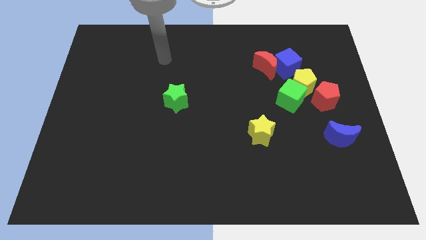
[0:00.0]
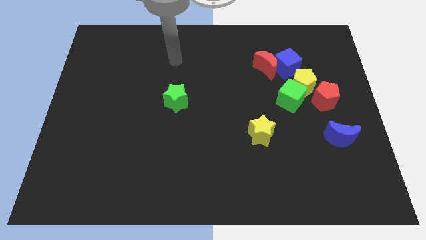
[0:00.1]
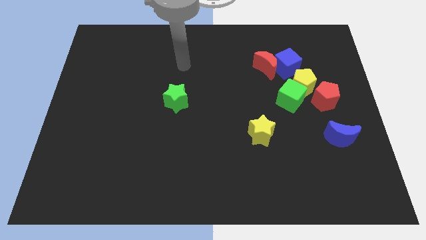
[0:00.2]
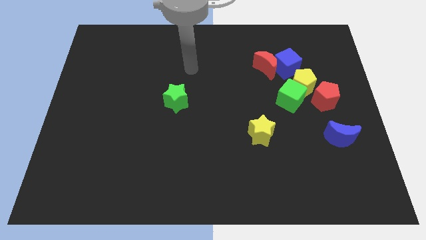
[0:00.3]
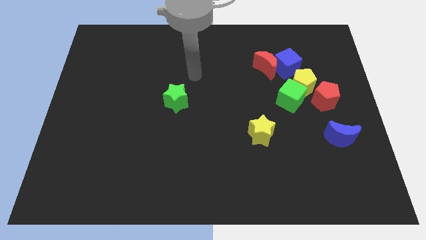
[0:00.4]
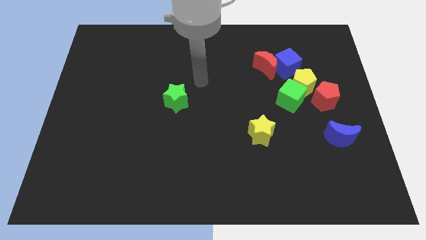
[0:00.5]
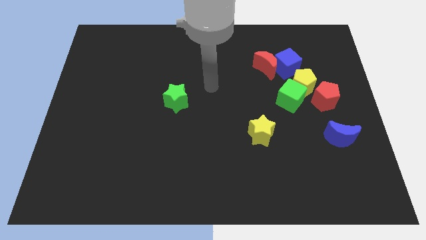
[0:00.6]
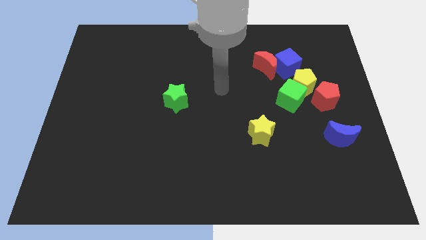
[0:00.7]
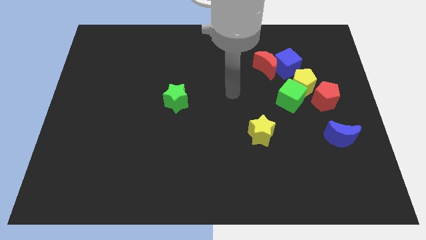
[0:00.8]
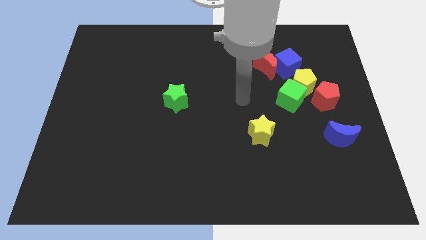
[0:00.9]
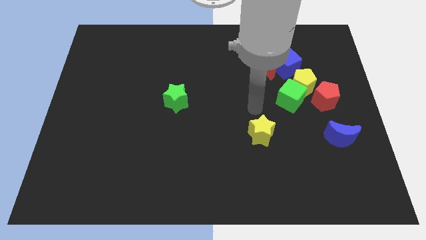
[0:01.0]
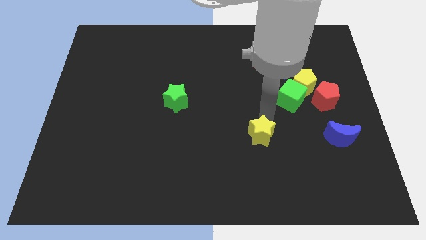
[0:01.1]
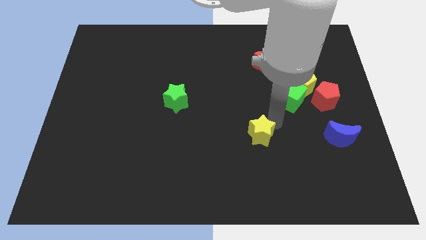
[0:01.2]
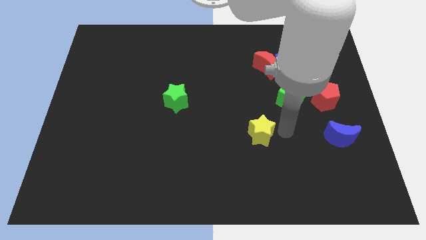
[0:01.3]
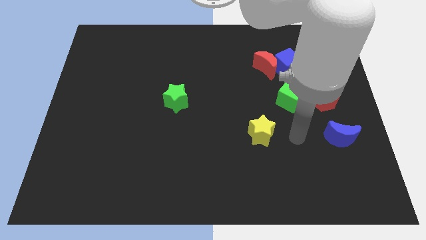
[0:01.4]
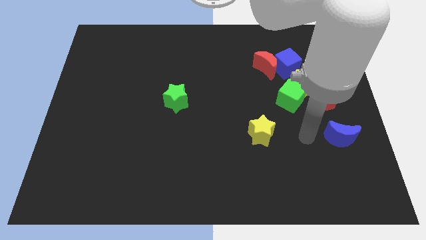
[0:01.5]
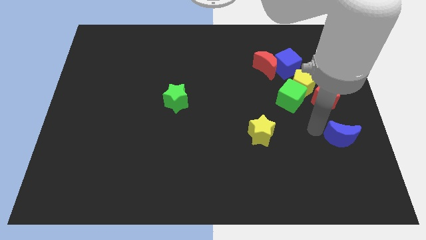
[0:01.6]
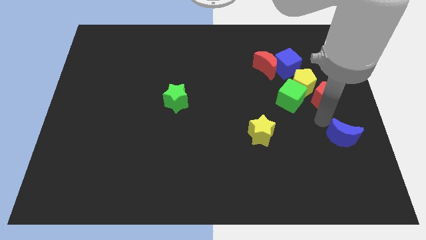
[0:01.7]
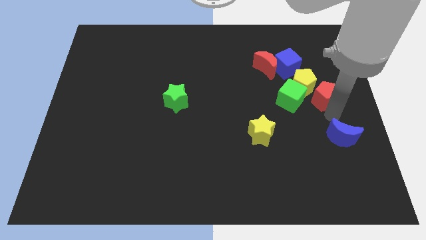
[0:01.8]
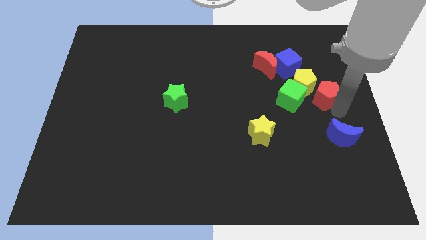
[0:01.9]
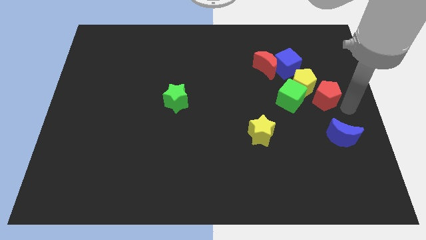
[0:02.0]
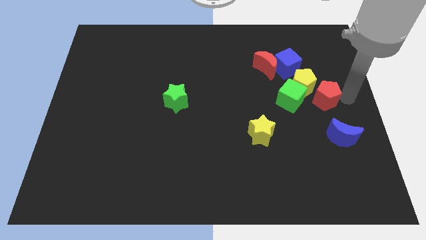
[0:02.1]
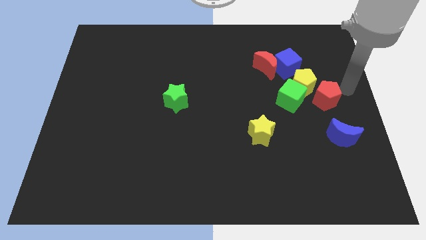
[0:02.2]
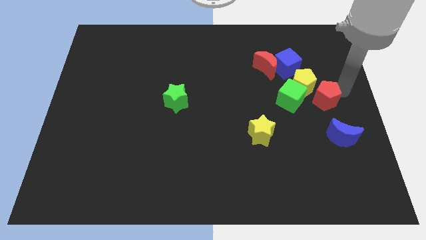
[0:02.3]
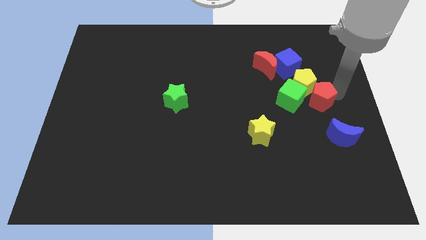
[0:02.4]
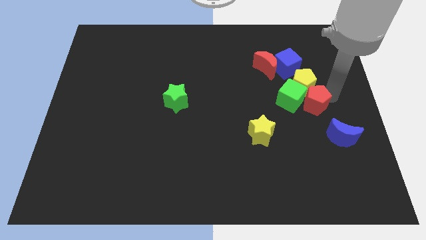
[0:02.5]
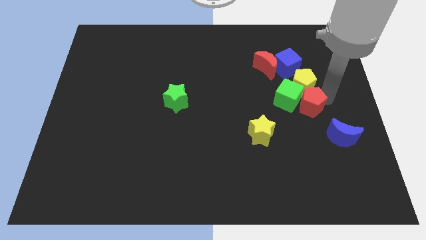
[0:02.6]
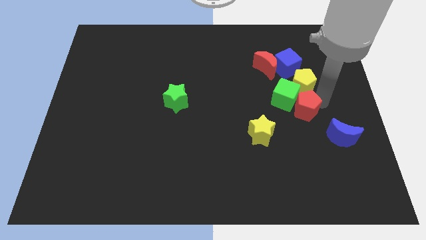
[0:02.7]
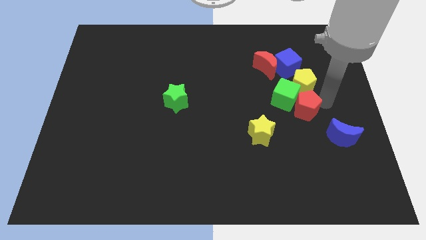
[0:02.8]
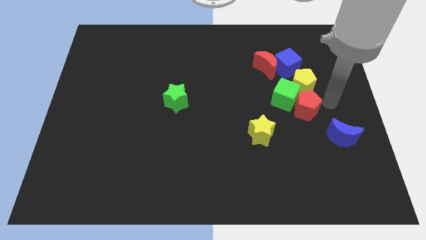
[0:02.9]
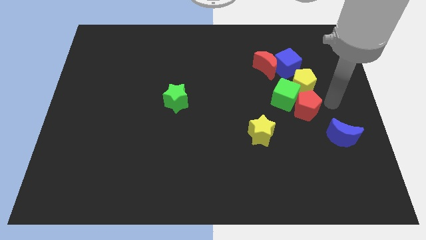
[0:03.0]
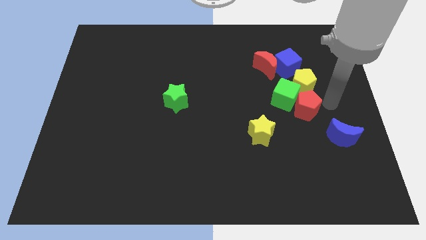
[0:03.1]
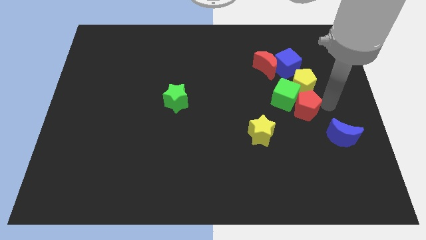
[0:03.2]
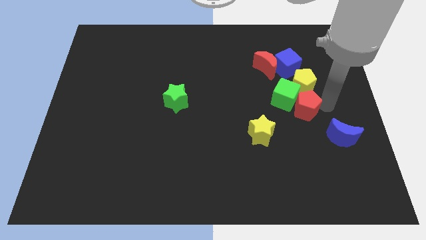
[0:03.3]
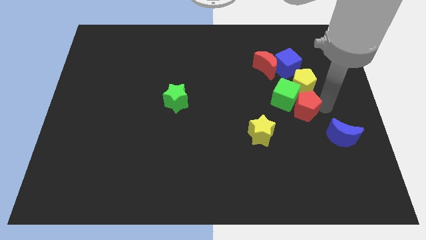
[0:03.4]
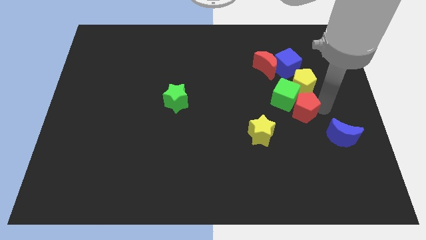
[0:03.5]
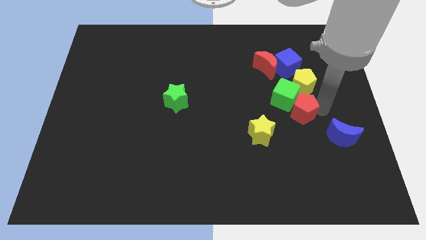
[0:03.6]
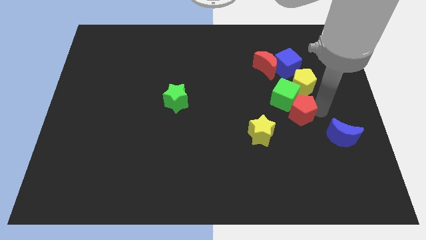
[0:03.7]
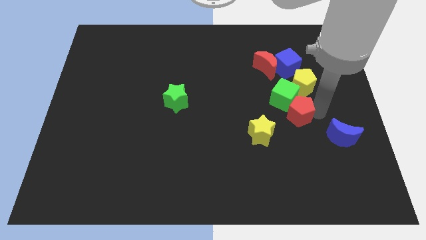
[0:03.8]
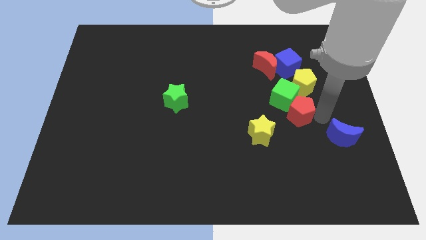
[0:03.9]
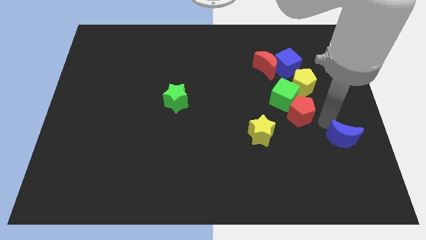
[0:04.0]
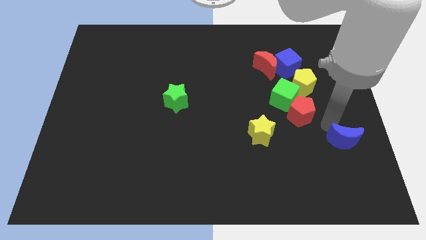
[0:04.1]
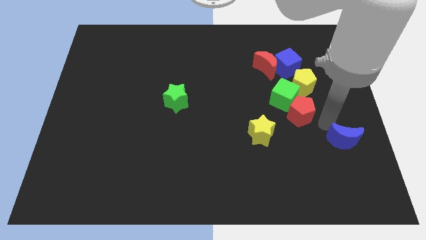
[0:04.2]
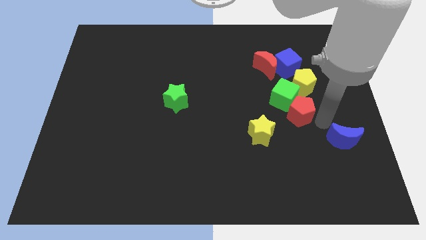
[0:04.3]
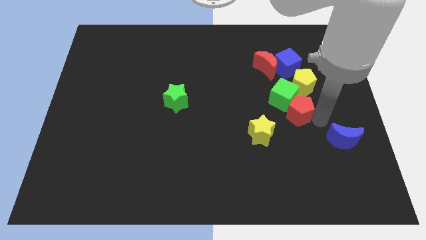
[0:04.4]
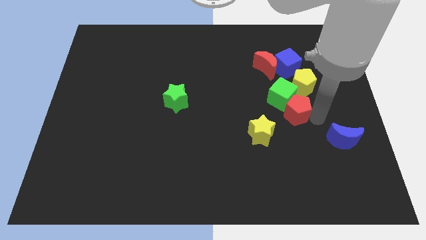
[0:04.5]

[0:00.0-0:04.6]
slide the red pentagon a little left

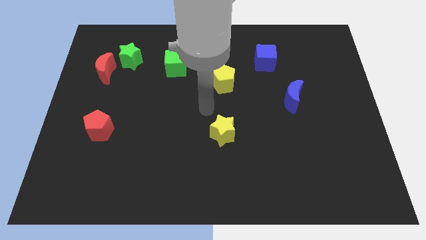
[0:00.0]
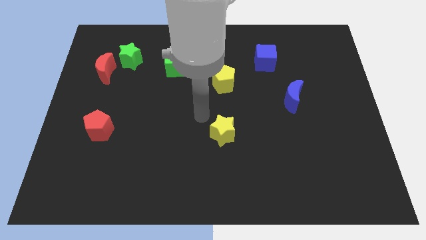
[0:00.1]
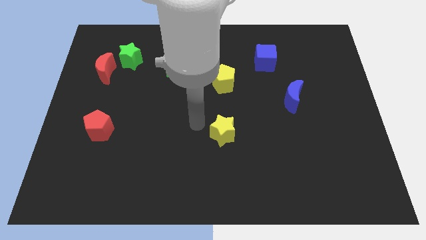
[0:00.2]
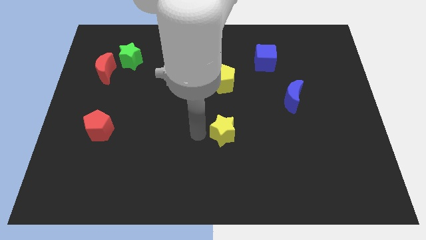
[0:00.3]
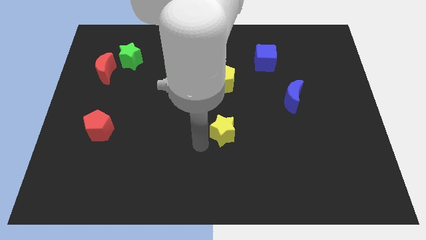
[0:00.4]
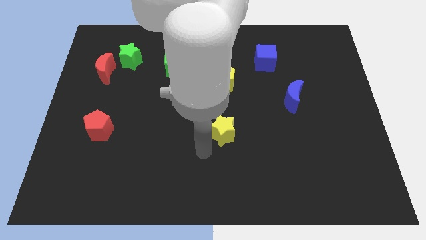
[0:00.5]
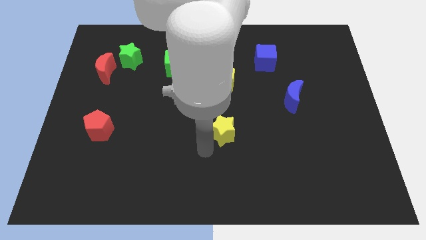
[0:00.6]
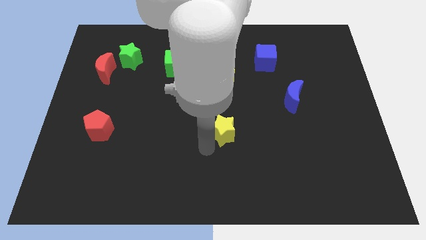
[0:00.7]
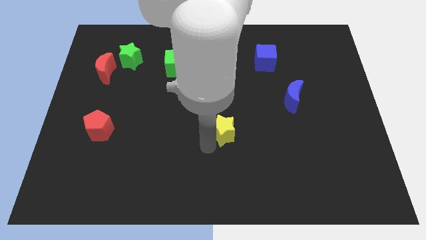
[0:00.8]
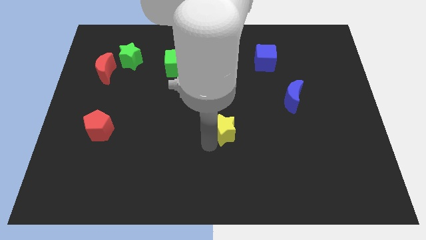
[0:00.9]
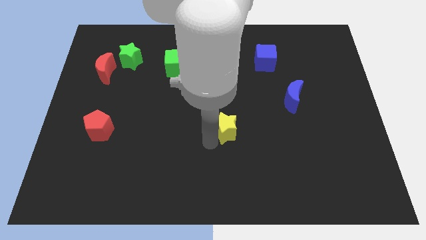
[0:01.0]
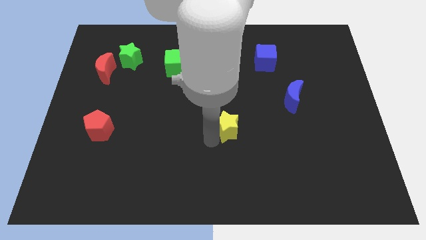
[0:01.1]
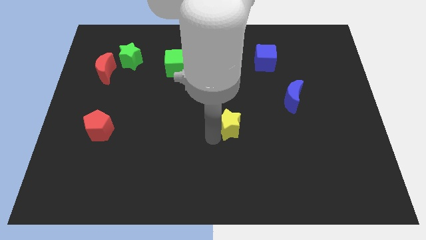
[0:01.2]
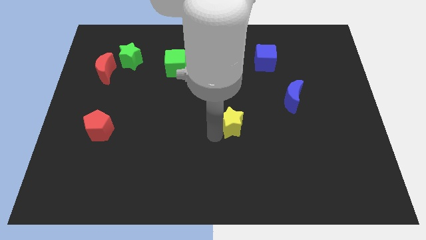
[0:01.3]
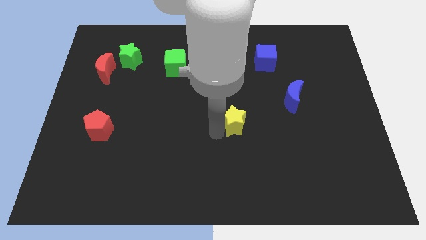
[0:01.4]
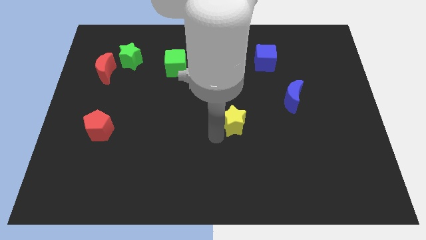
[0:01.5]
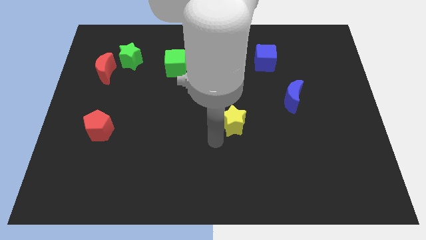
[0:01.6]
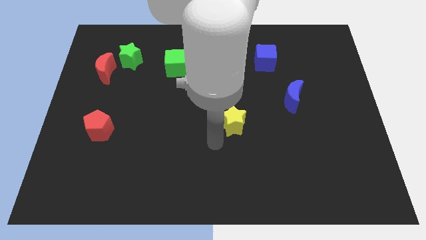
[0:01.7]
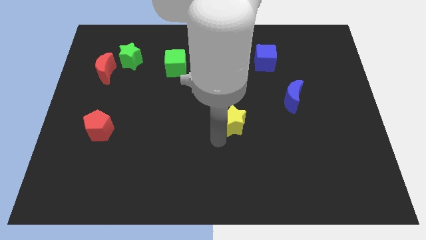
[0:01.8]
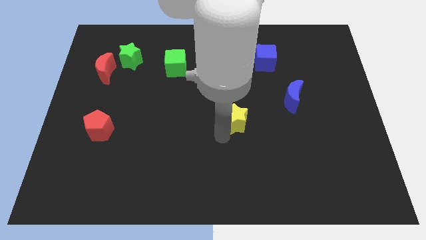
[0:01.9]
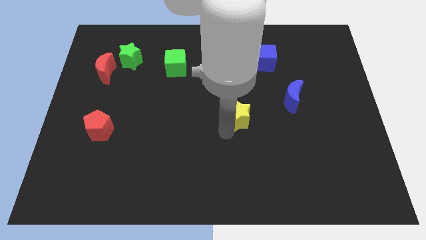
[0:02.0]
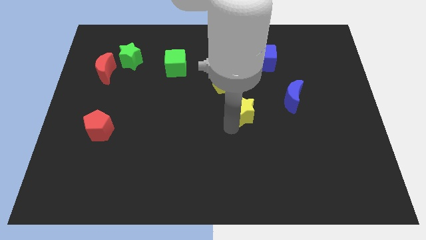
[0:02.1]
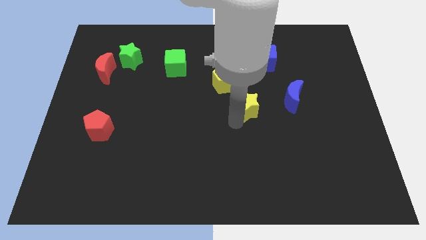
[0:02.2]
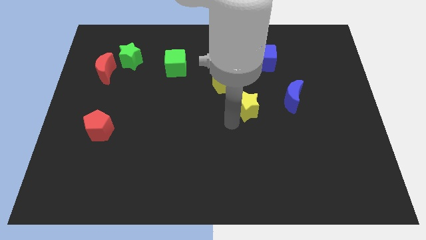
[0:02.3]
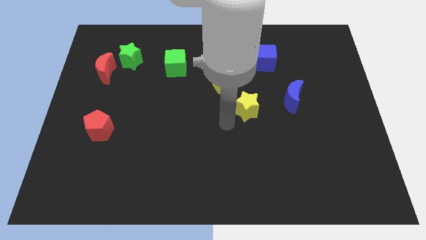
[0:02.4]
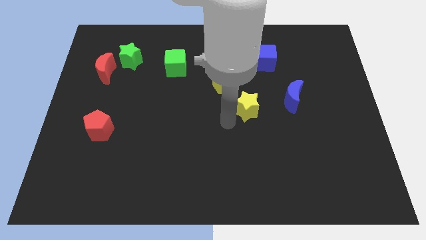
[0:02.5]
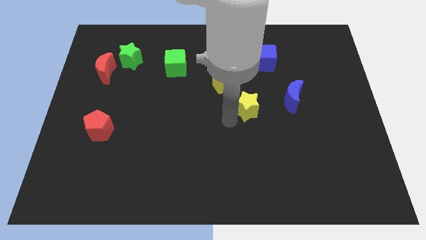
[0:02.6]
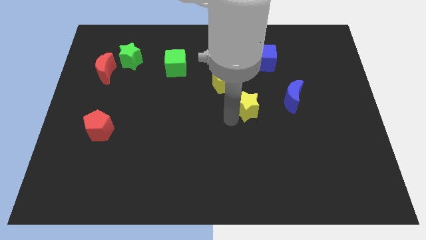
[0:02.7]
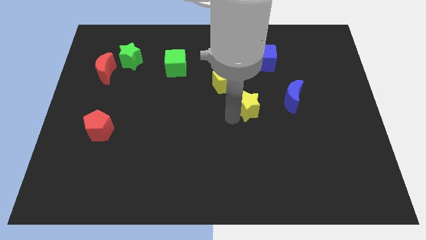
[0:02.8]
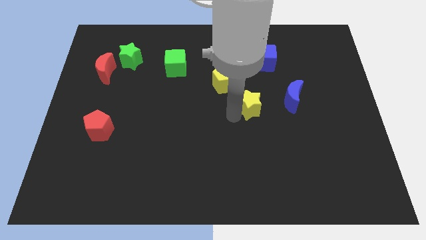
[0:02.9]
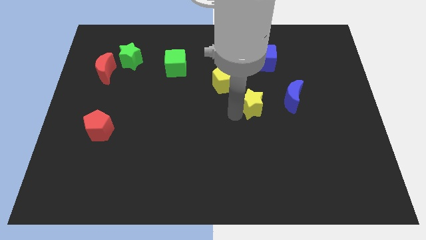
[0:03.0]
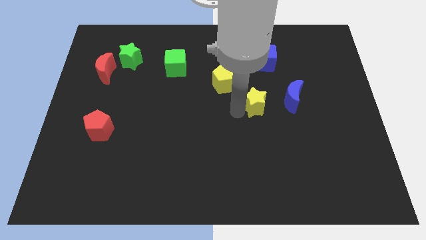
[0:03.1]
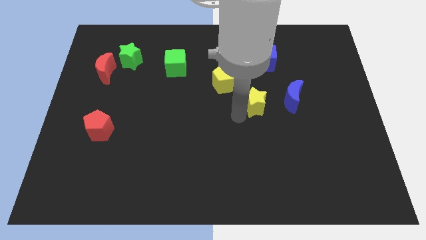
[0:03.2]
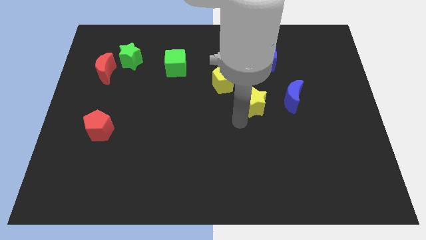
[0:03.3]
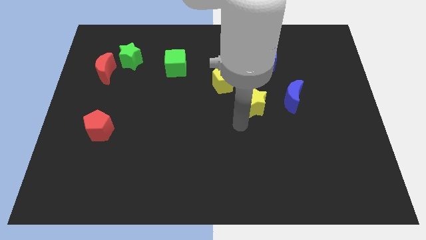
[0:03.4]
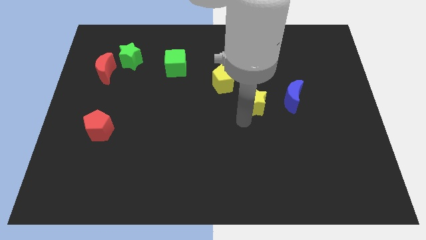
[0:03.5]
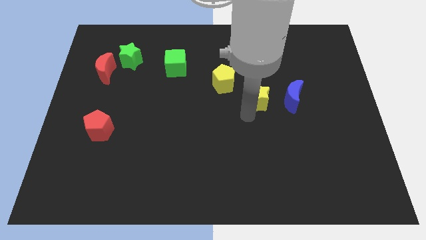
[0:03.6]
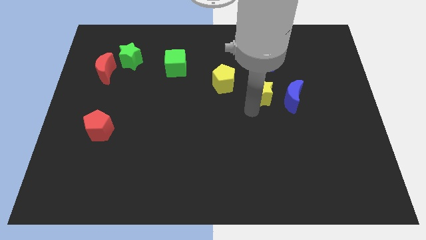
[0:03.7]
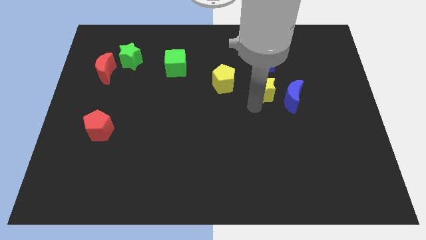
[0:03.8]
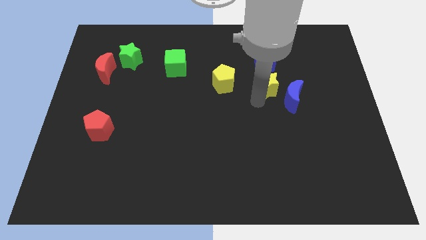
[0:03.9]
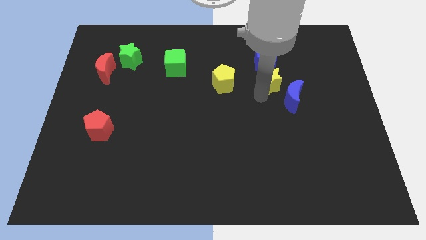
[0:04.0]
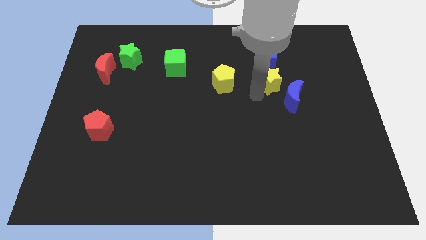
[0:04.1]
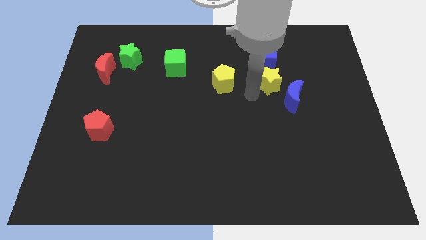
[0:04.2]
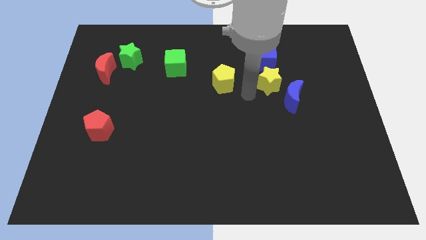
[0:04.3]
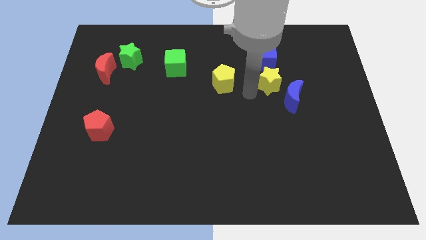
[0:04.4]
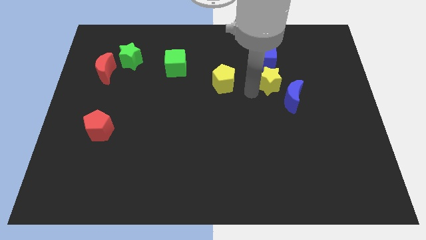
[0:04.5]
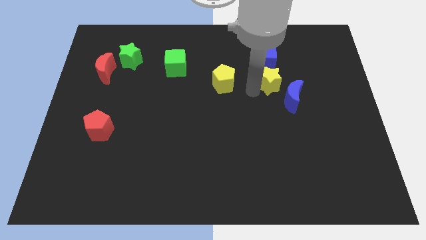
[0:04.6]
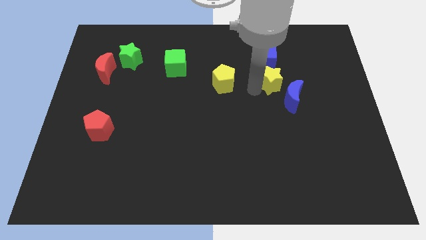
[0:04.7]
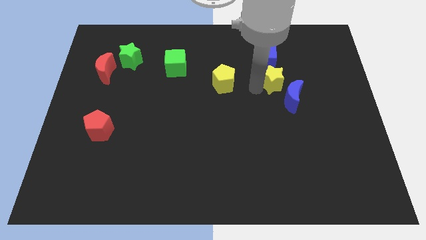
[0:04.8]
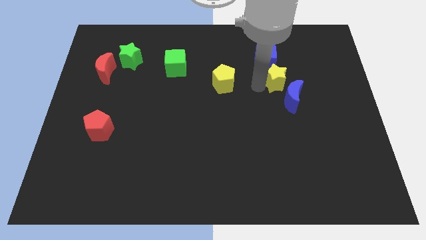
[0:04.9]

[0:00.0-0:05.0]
push the yellow star up and then right
